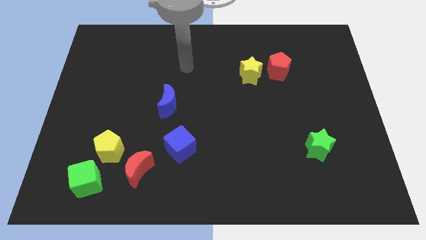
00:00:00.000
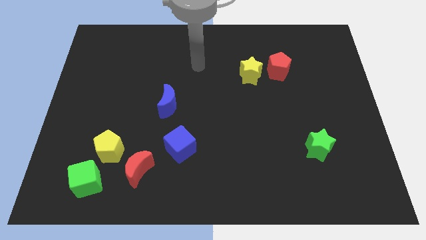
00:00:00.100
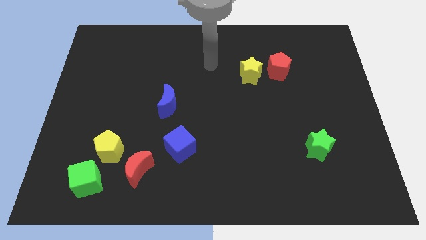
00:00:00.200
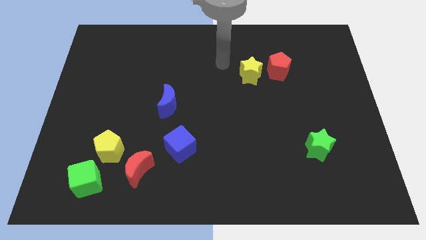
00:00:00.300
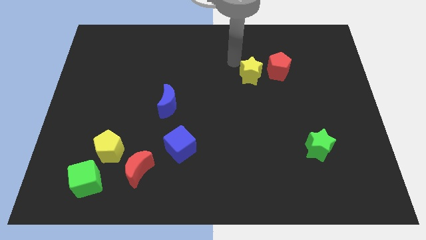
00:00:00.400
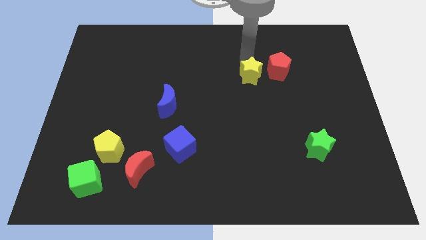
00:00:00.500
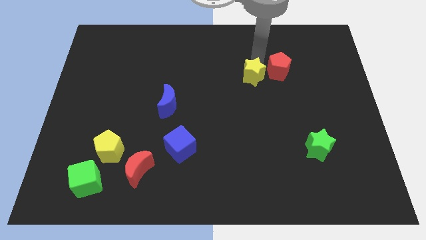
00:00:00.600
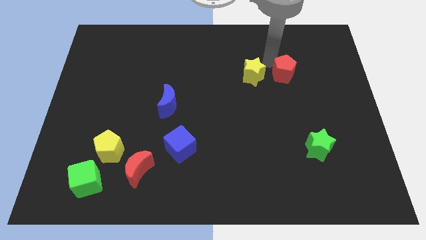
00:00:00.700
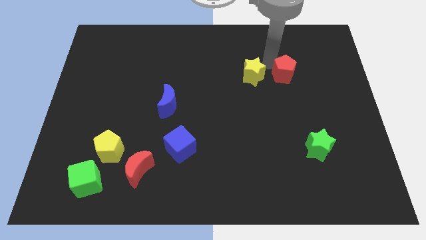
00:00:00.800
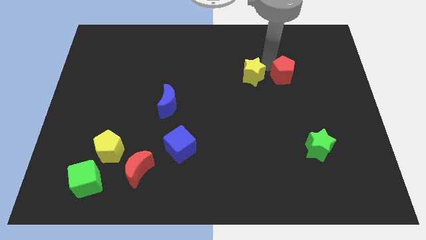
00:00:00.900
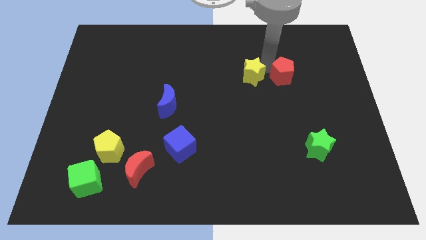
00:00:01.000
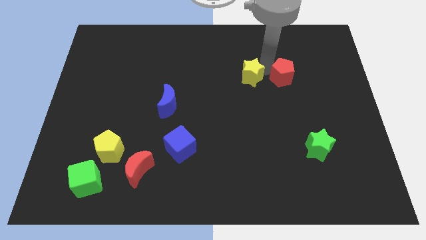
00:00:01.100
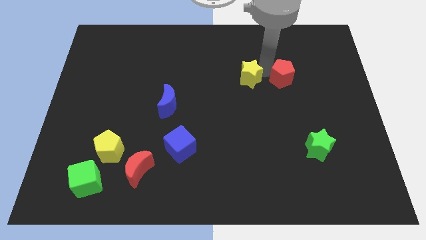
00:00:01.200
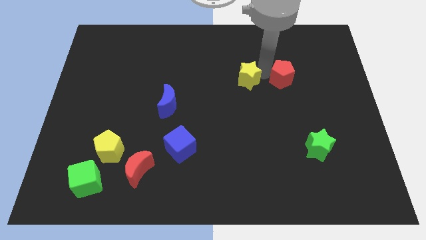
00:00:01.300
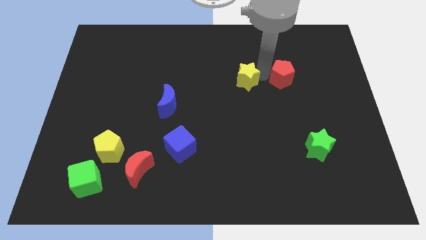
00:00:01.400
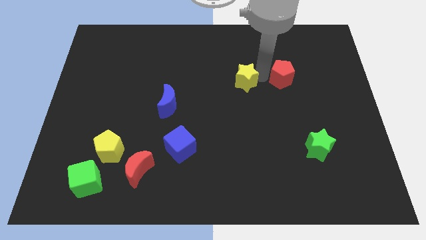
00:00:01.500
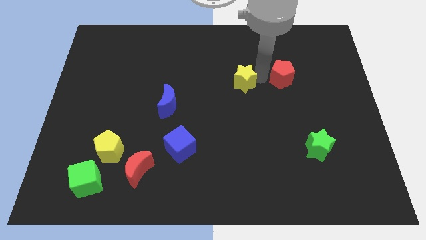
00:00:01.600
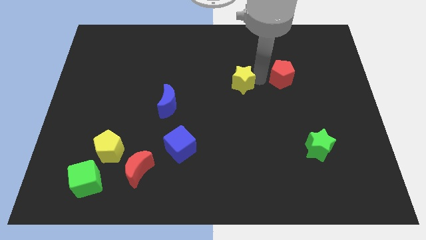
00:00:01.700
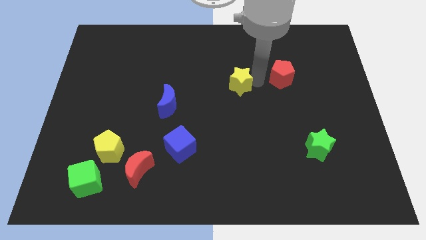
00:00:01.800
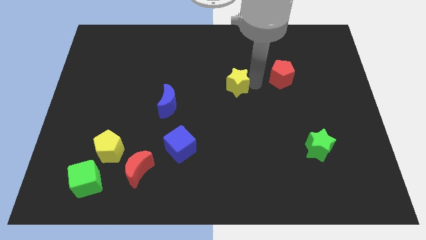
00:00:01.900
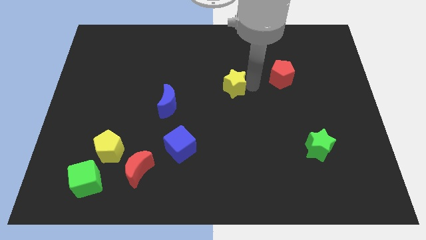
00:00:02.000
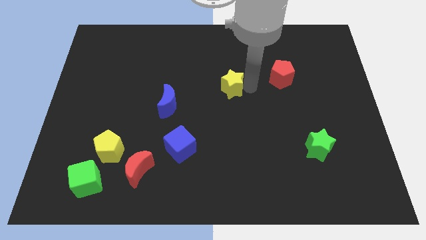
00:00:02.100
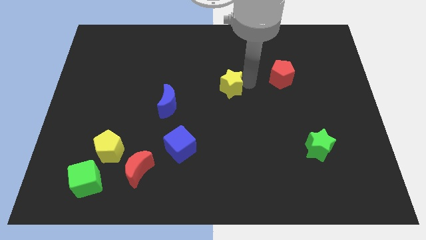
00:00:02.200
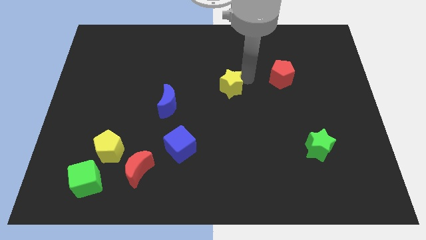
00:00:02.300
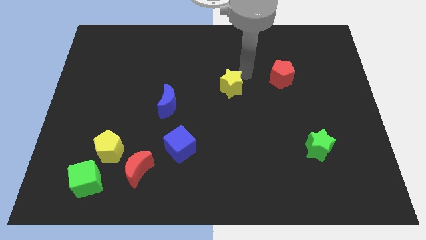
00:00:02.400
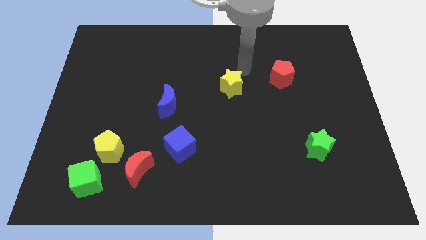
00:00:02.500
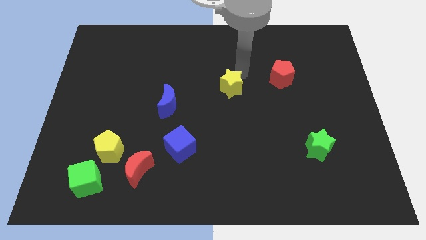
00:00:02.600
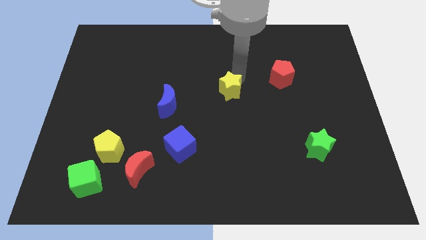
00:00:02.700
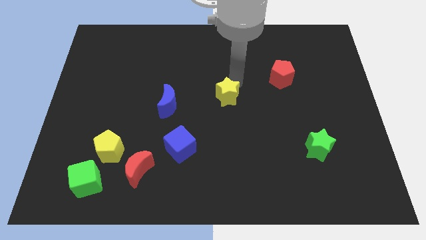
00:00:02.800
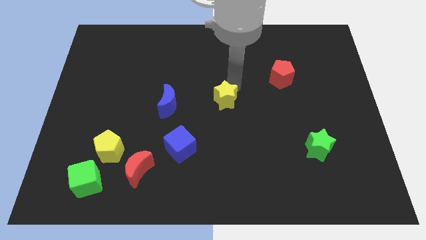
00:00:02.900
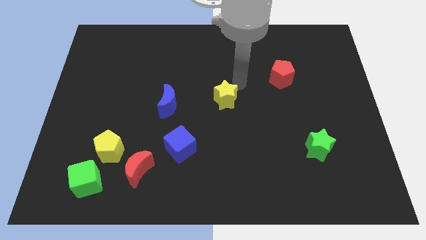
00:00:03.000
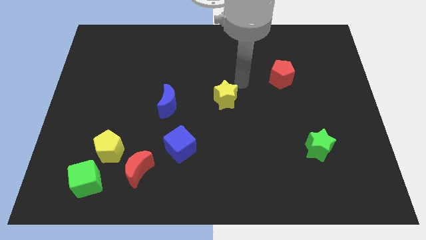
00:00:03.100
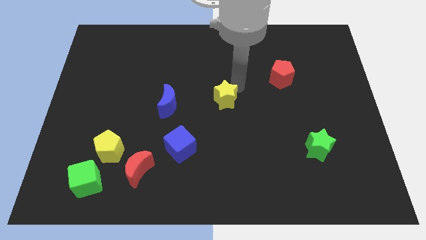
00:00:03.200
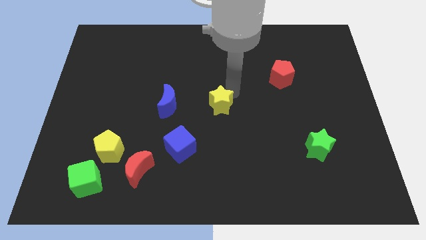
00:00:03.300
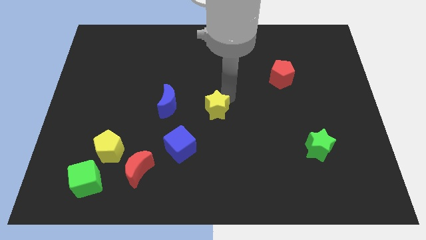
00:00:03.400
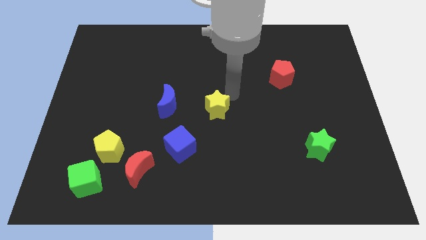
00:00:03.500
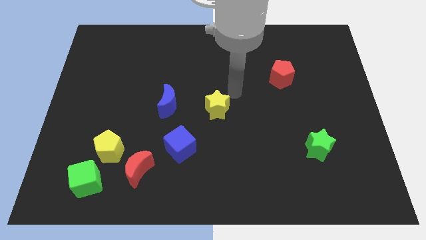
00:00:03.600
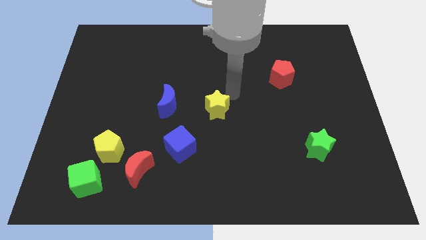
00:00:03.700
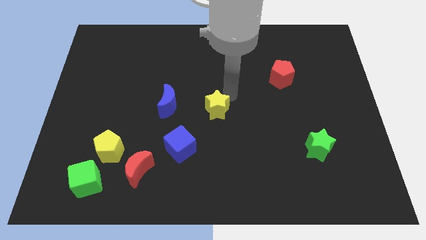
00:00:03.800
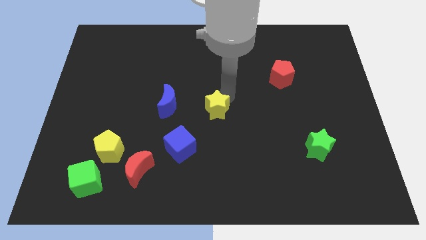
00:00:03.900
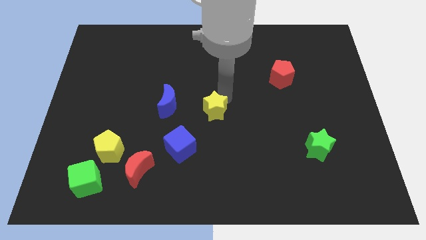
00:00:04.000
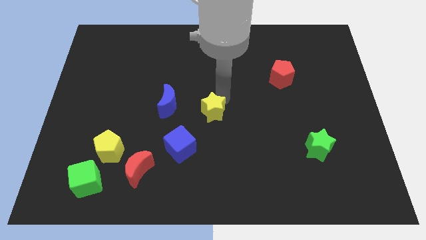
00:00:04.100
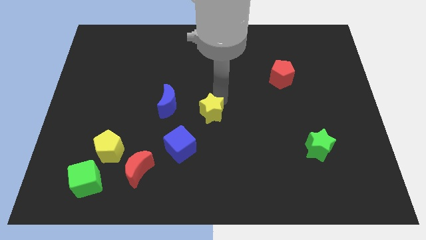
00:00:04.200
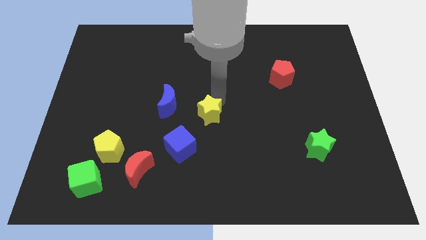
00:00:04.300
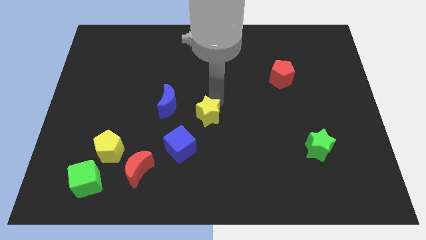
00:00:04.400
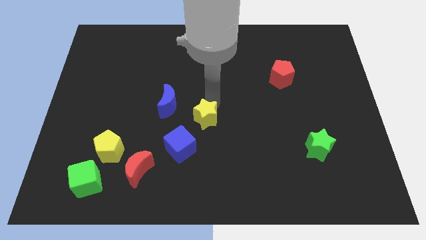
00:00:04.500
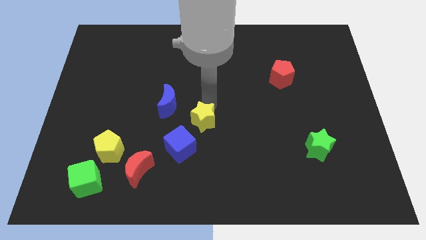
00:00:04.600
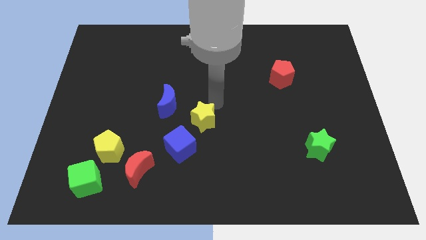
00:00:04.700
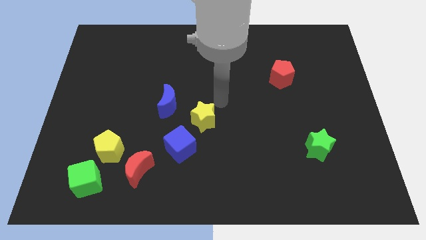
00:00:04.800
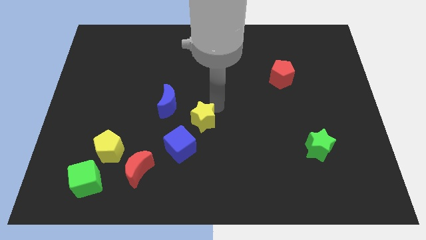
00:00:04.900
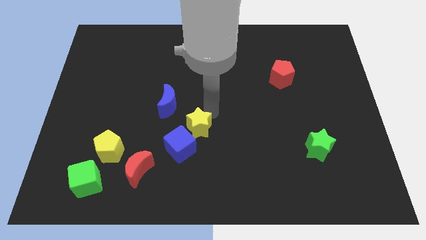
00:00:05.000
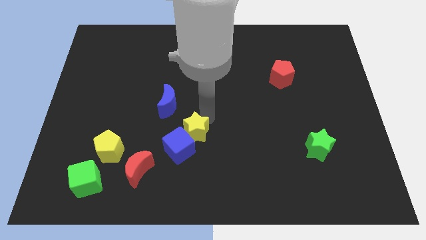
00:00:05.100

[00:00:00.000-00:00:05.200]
put the yellow star to the blue cube

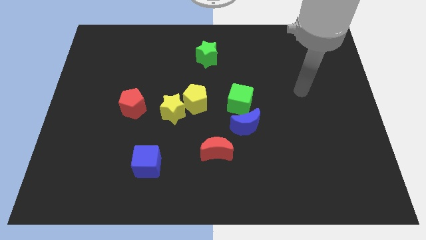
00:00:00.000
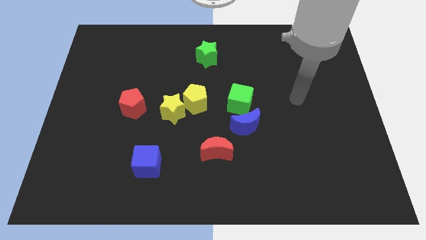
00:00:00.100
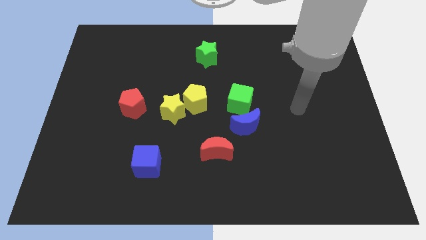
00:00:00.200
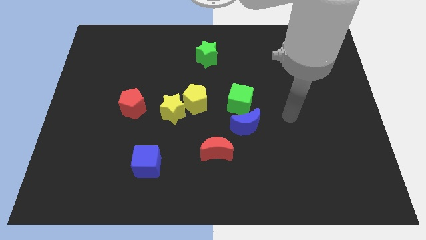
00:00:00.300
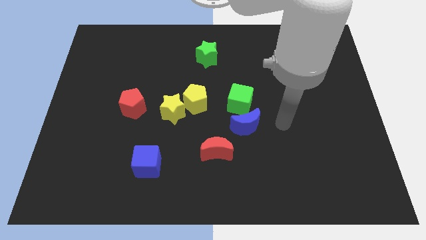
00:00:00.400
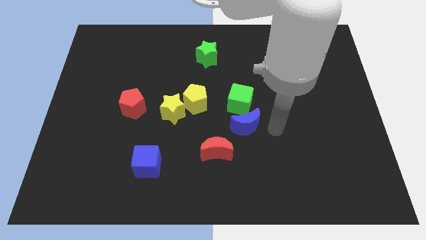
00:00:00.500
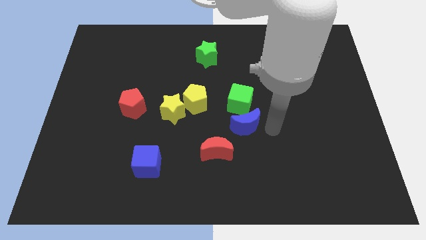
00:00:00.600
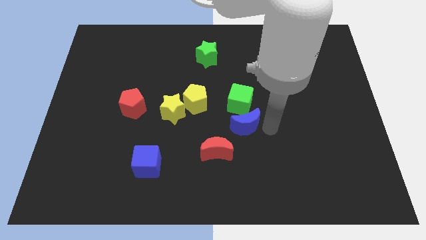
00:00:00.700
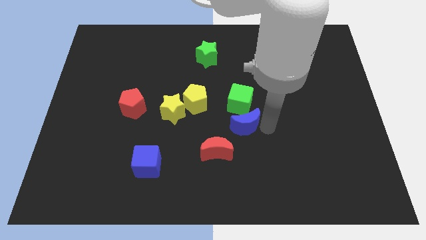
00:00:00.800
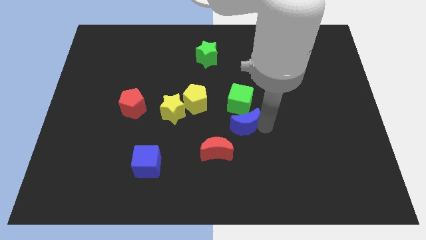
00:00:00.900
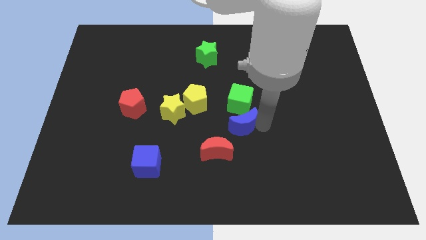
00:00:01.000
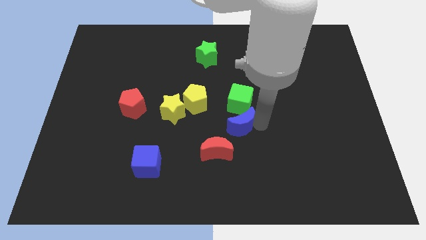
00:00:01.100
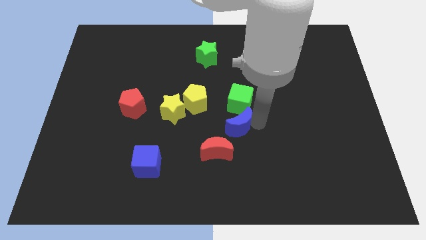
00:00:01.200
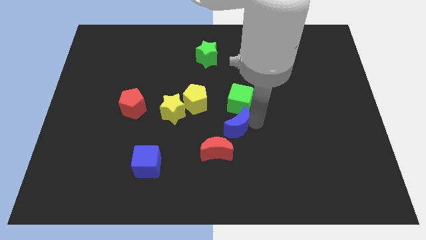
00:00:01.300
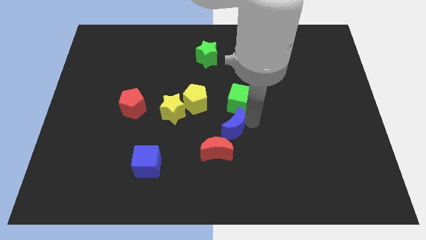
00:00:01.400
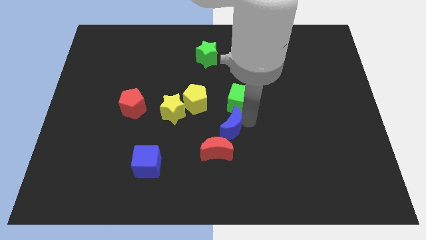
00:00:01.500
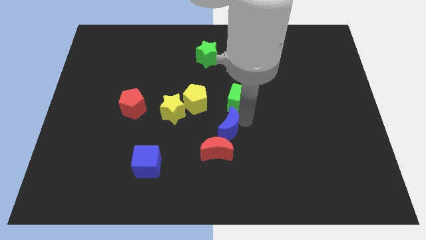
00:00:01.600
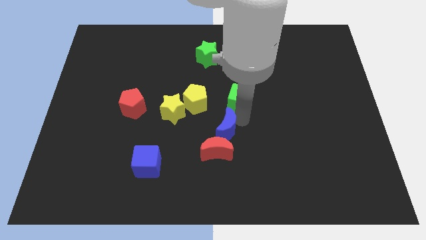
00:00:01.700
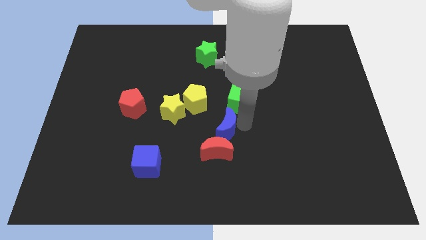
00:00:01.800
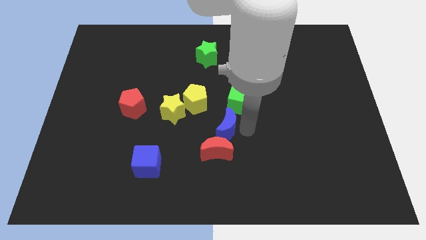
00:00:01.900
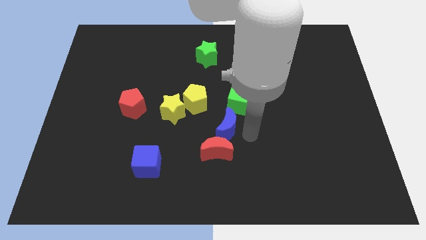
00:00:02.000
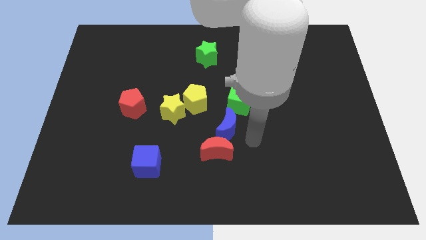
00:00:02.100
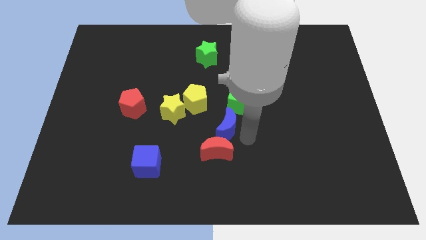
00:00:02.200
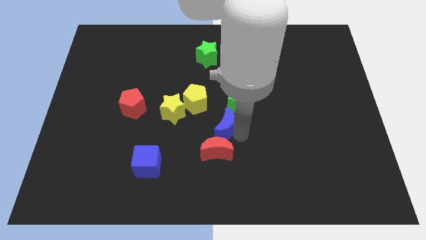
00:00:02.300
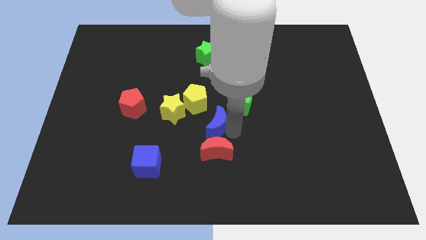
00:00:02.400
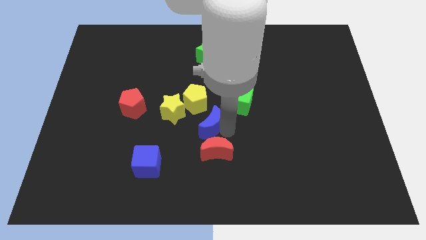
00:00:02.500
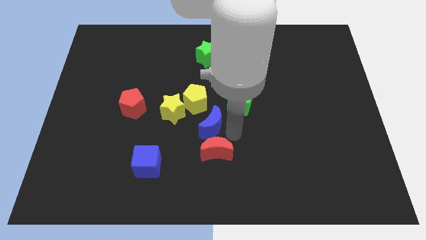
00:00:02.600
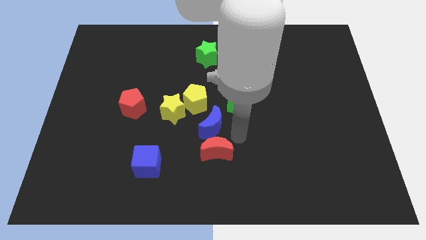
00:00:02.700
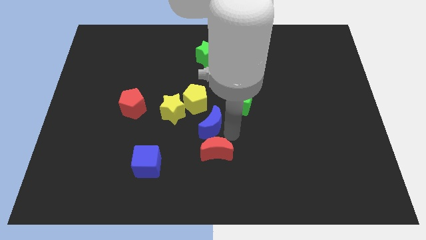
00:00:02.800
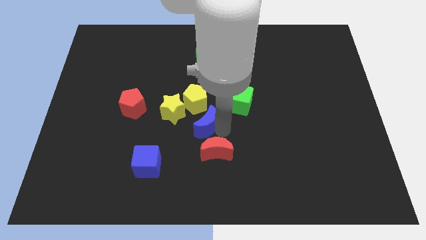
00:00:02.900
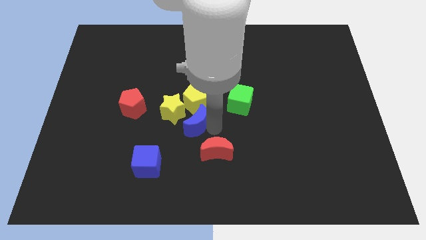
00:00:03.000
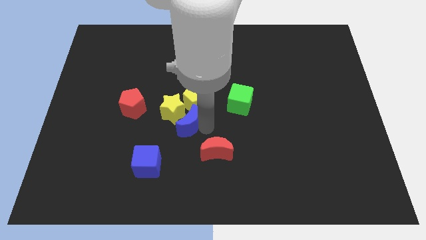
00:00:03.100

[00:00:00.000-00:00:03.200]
put the blue moon to the yellow star
